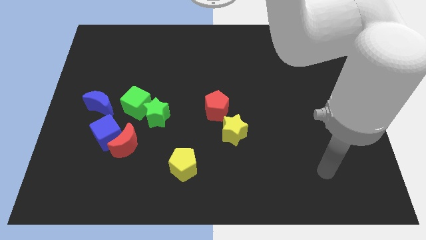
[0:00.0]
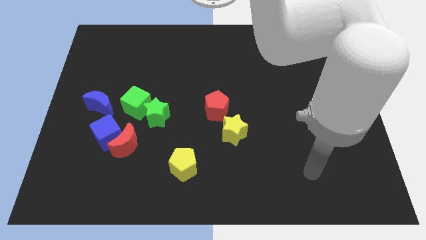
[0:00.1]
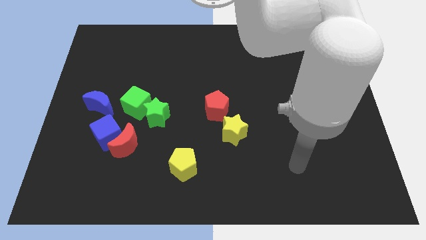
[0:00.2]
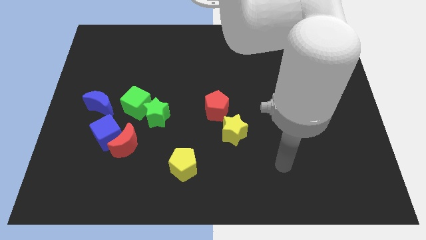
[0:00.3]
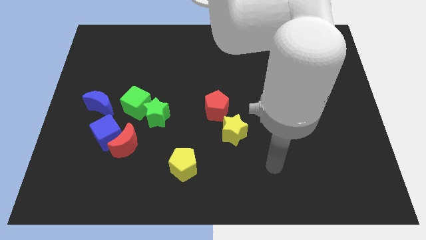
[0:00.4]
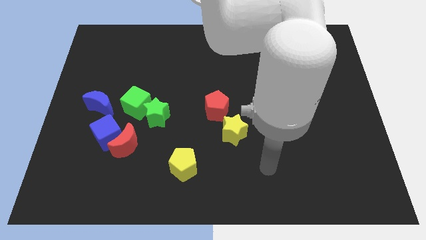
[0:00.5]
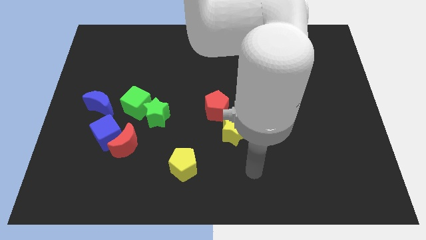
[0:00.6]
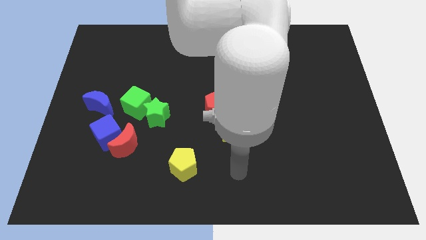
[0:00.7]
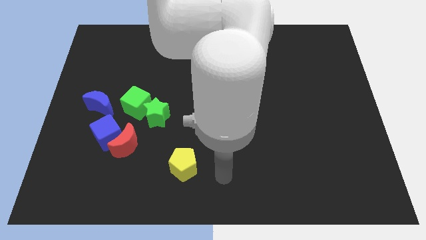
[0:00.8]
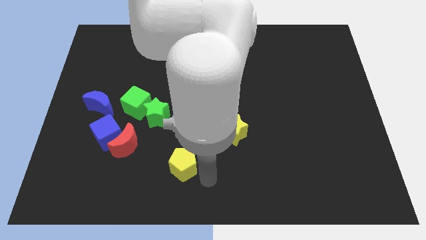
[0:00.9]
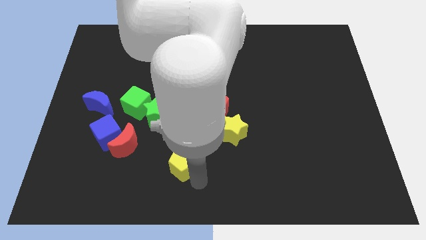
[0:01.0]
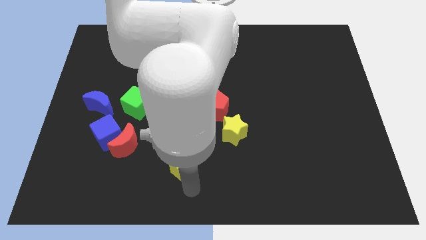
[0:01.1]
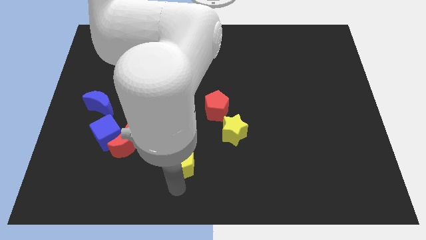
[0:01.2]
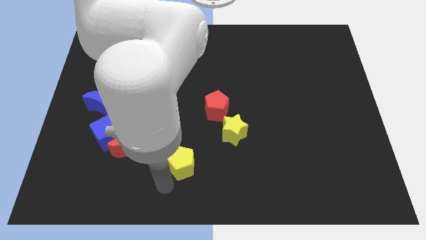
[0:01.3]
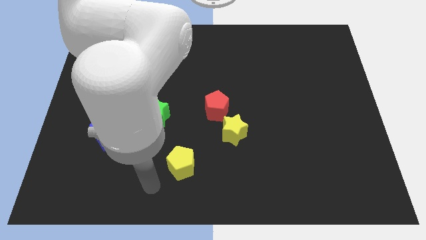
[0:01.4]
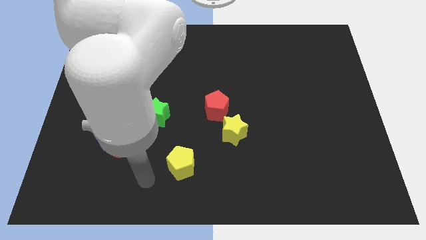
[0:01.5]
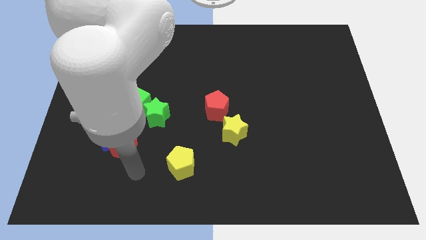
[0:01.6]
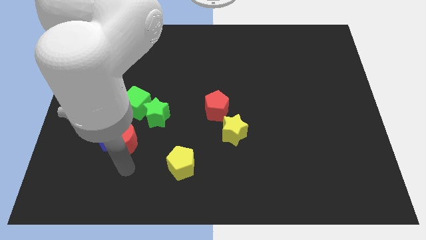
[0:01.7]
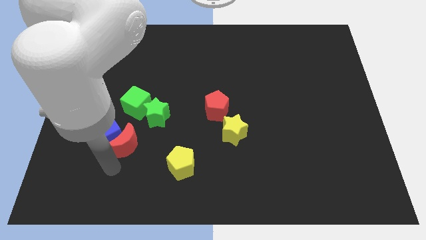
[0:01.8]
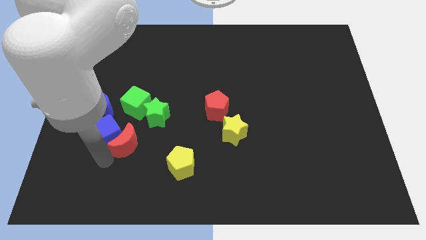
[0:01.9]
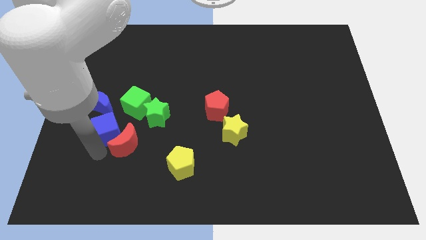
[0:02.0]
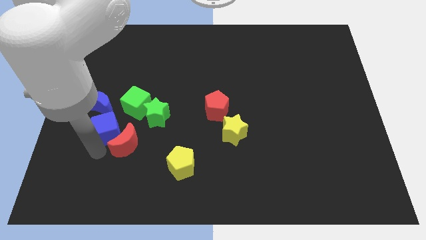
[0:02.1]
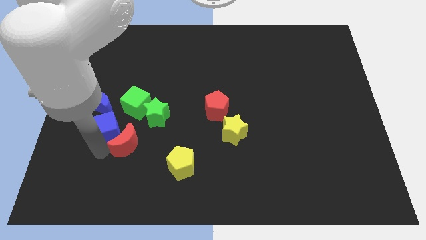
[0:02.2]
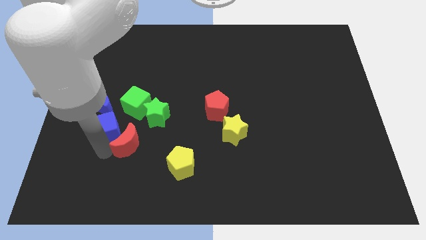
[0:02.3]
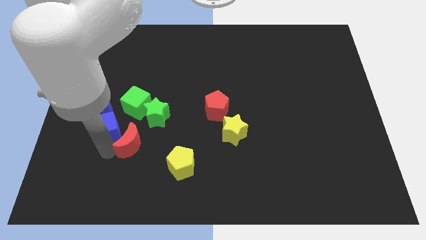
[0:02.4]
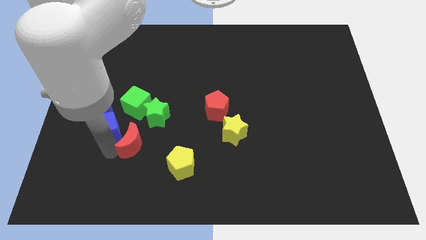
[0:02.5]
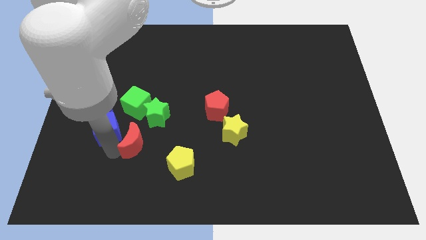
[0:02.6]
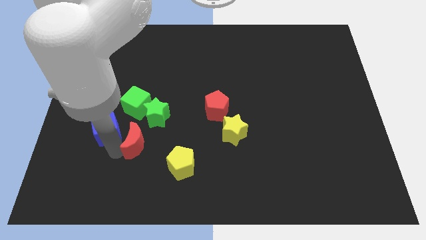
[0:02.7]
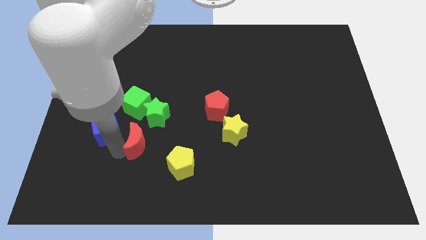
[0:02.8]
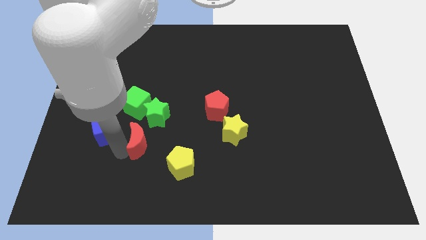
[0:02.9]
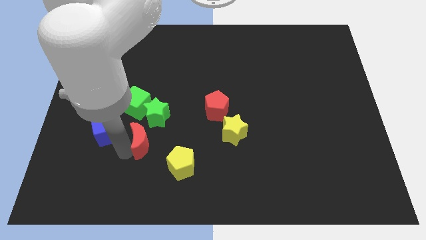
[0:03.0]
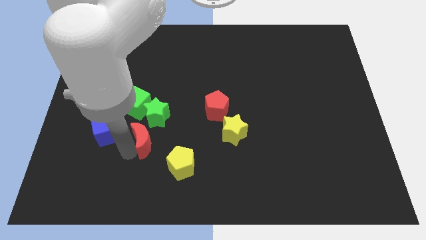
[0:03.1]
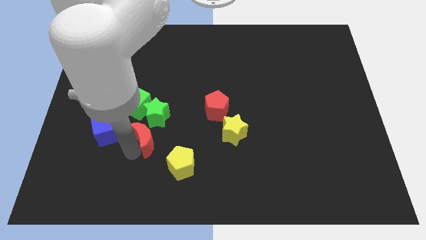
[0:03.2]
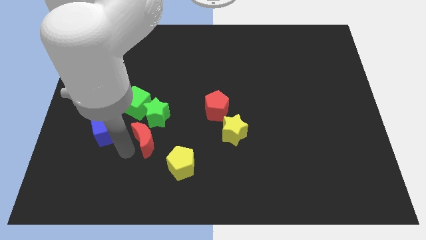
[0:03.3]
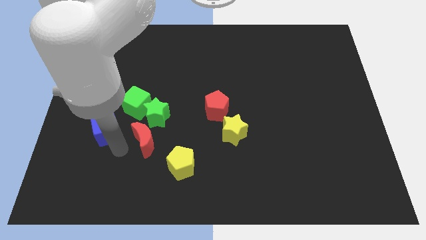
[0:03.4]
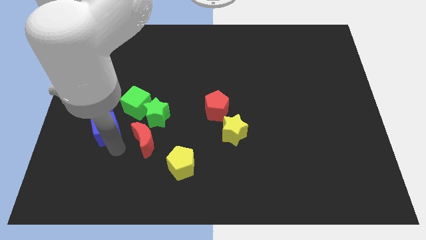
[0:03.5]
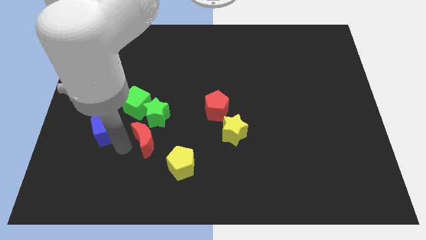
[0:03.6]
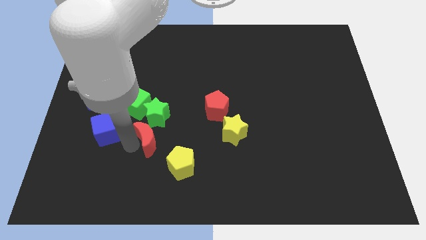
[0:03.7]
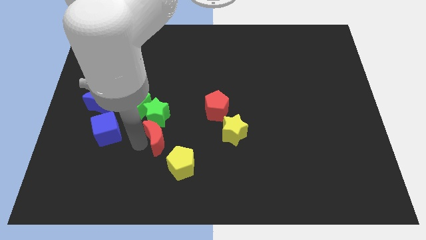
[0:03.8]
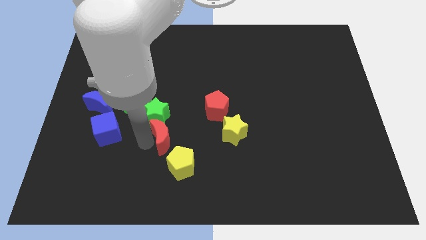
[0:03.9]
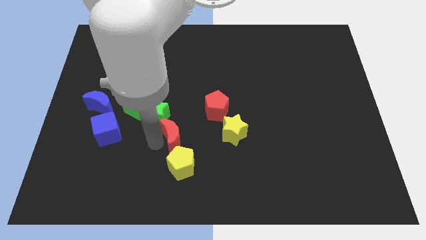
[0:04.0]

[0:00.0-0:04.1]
push the red moon slightly diagonally up and right

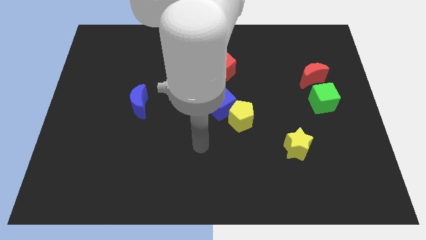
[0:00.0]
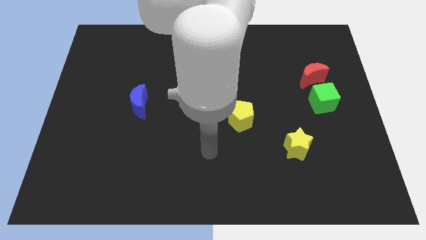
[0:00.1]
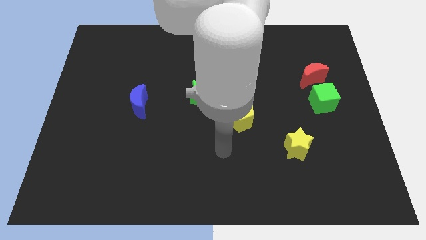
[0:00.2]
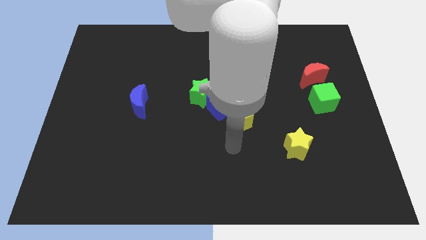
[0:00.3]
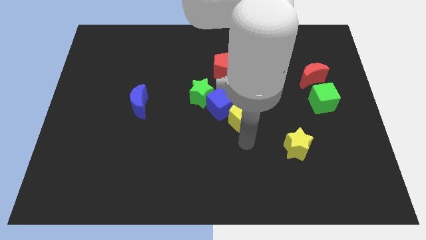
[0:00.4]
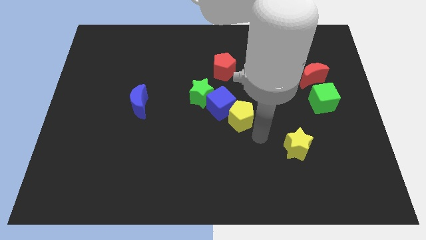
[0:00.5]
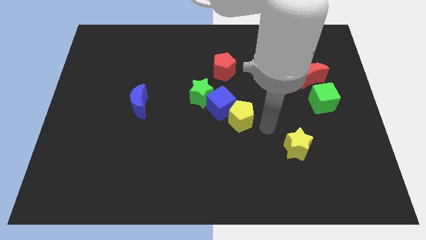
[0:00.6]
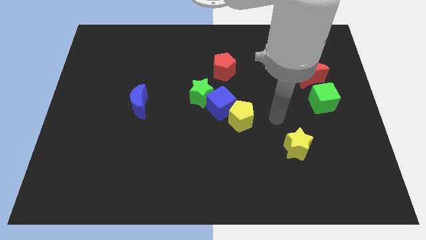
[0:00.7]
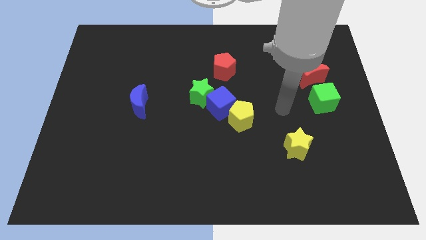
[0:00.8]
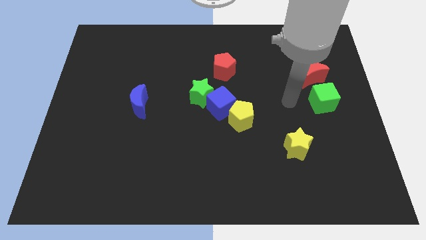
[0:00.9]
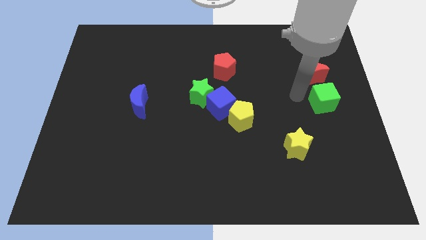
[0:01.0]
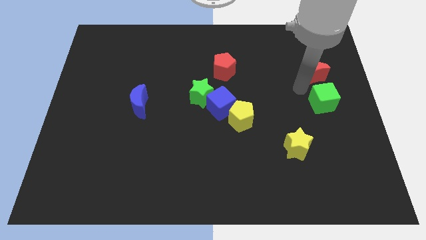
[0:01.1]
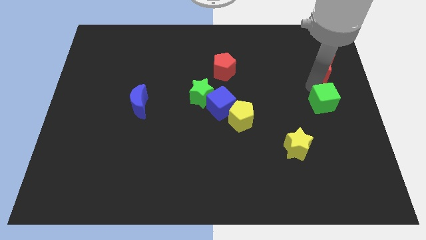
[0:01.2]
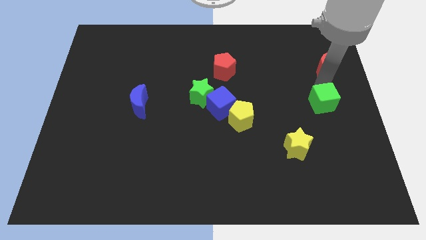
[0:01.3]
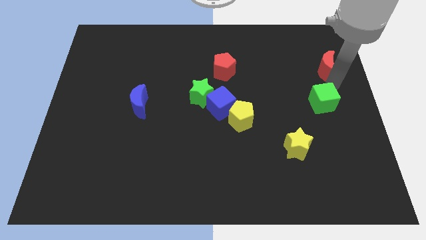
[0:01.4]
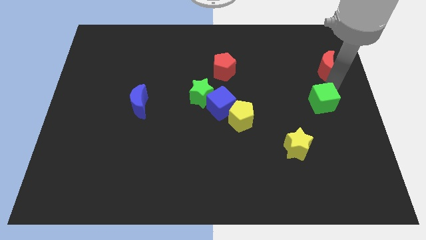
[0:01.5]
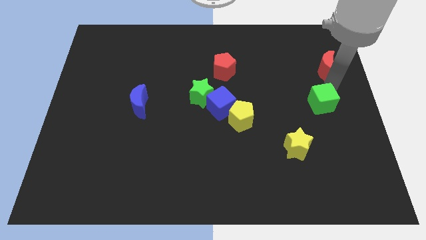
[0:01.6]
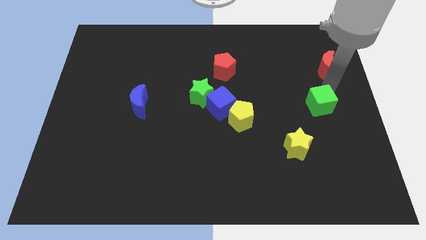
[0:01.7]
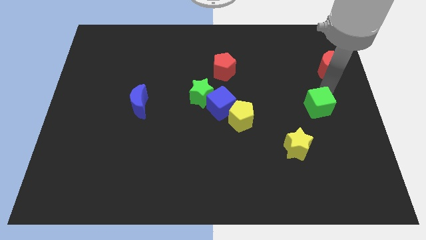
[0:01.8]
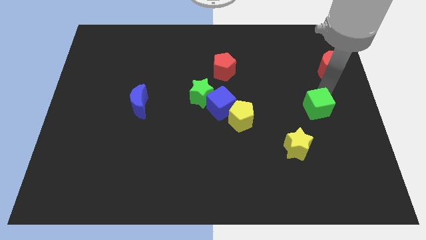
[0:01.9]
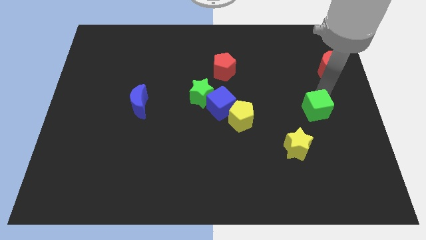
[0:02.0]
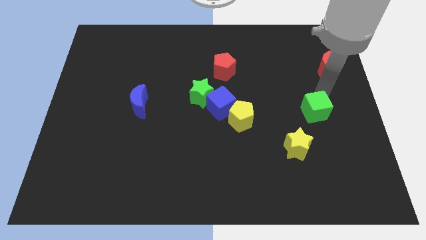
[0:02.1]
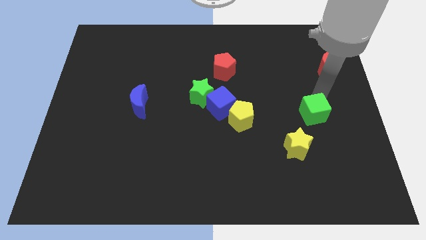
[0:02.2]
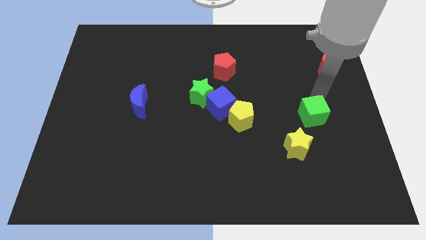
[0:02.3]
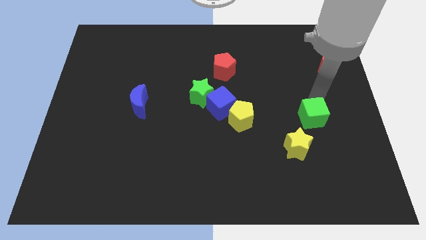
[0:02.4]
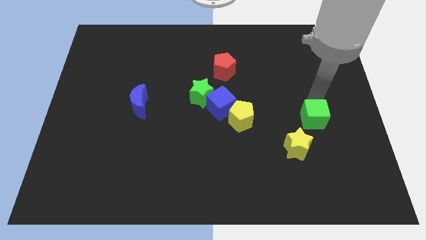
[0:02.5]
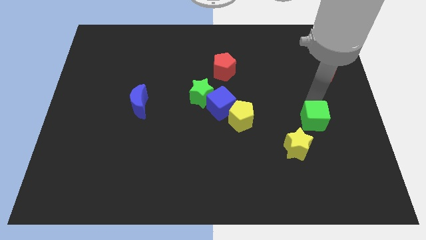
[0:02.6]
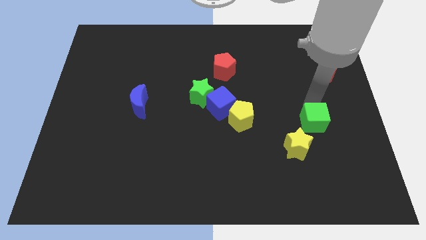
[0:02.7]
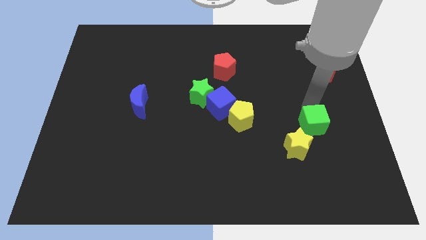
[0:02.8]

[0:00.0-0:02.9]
slightly slide the green cube down and to the left diagonally
